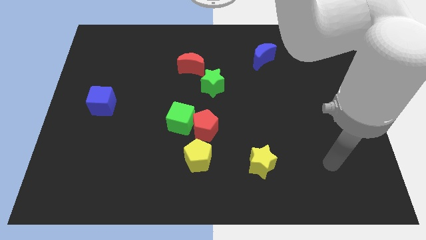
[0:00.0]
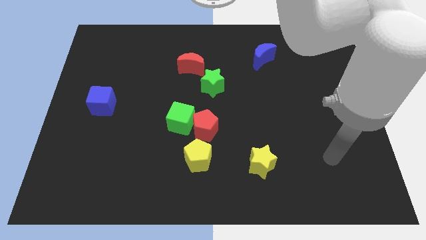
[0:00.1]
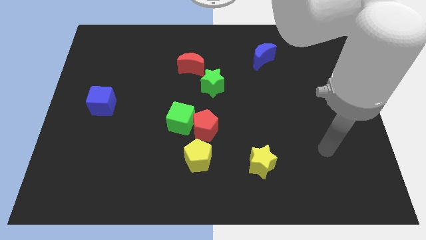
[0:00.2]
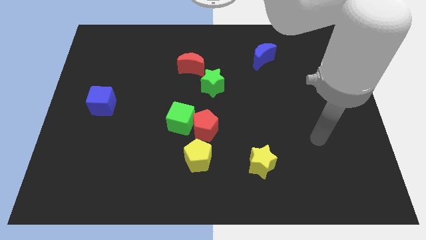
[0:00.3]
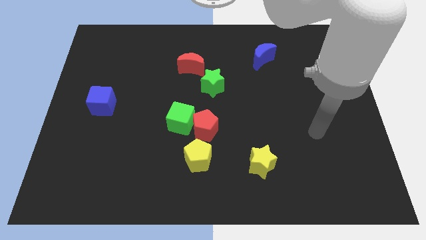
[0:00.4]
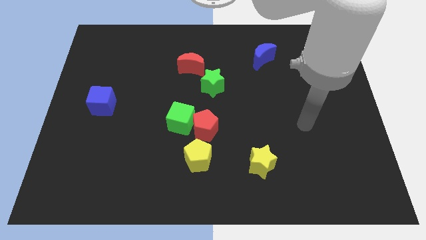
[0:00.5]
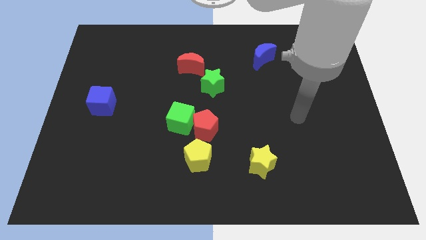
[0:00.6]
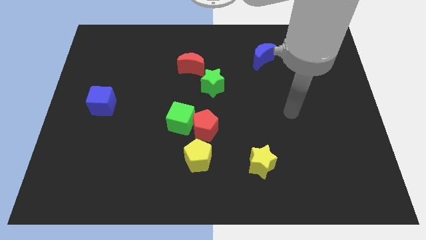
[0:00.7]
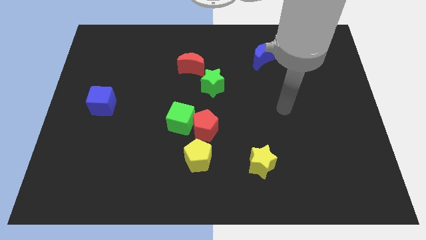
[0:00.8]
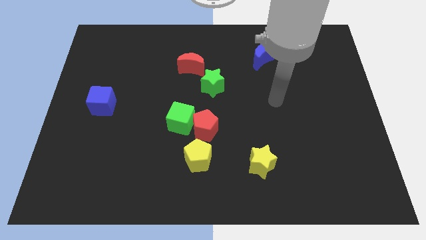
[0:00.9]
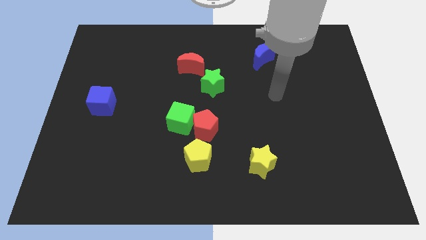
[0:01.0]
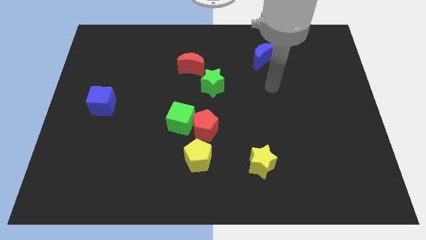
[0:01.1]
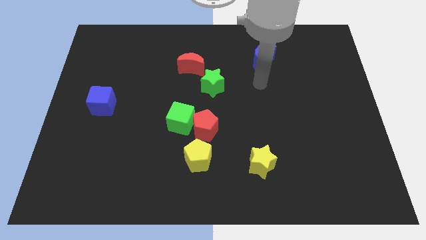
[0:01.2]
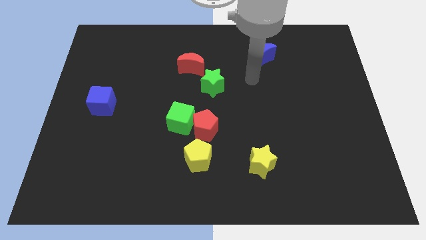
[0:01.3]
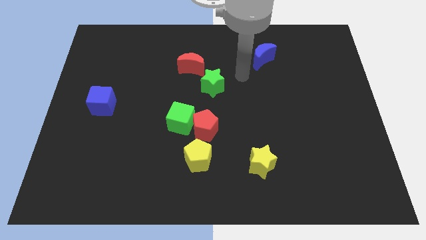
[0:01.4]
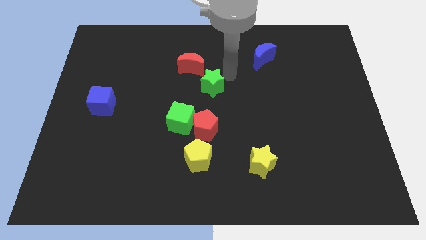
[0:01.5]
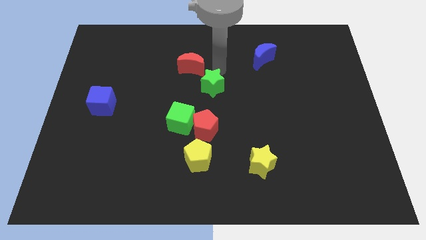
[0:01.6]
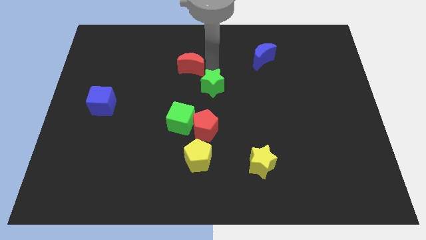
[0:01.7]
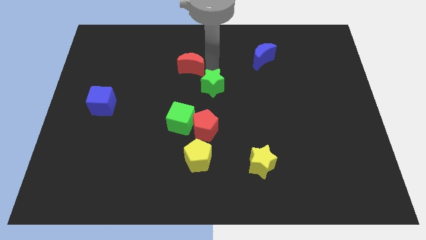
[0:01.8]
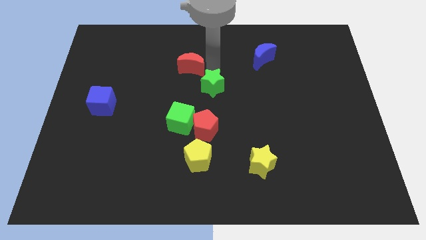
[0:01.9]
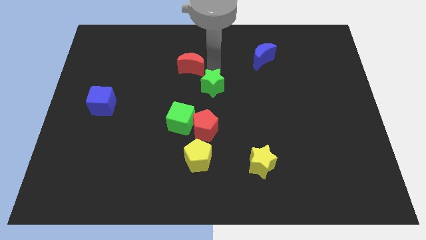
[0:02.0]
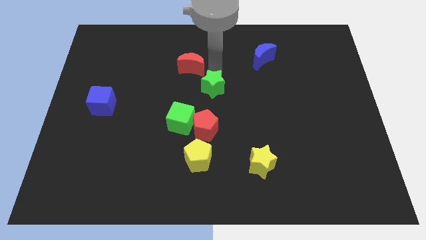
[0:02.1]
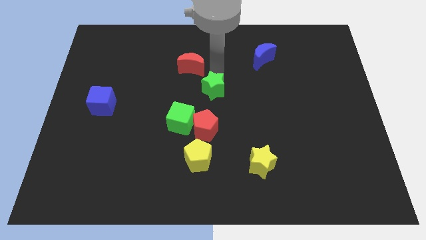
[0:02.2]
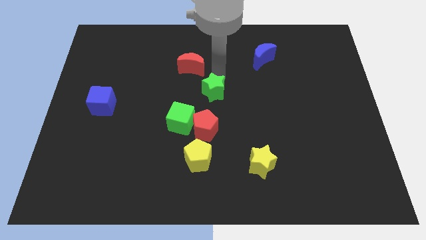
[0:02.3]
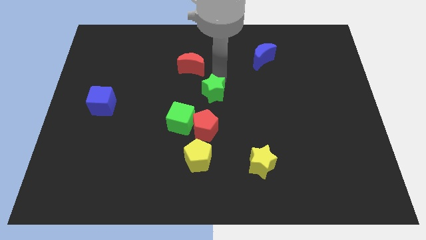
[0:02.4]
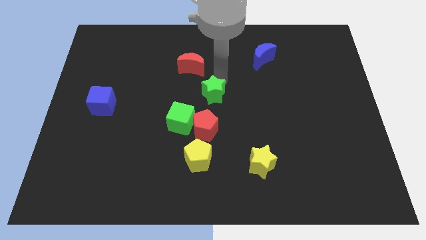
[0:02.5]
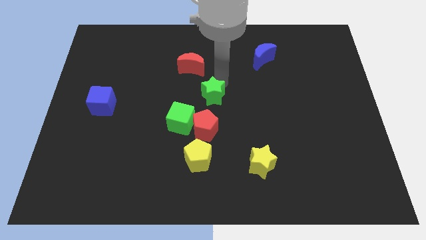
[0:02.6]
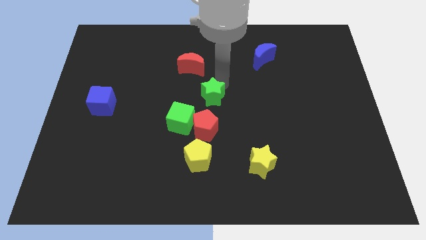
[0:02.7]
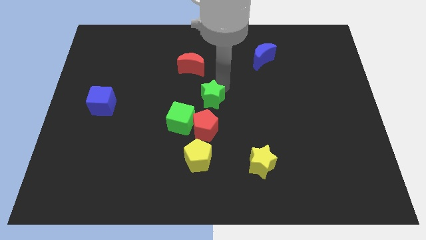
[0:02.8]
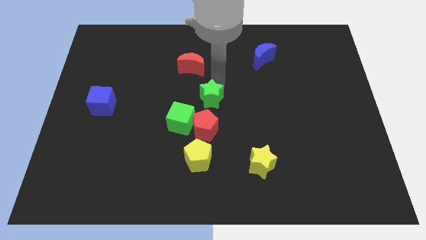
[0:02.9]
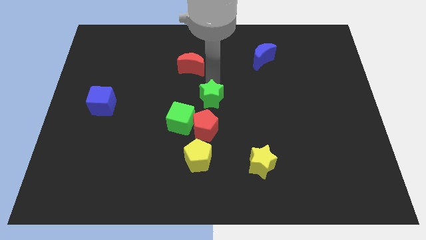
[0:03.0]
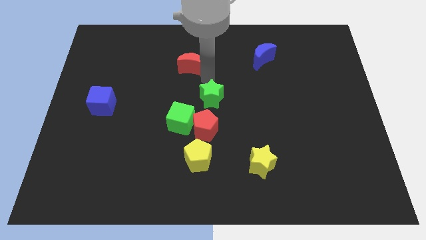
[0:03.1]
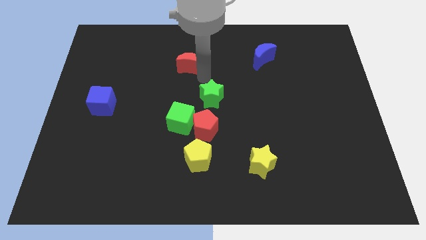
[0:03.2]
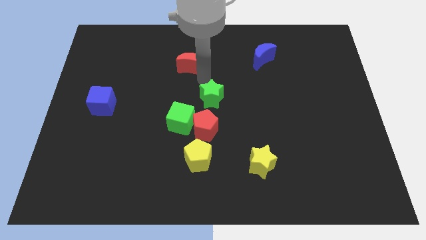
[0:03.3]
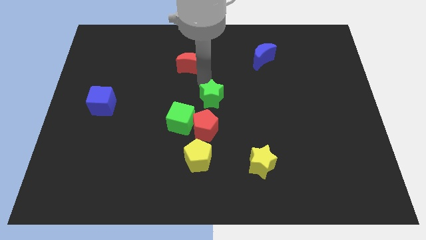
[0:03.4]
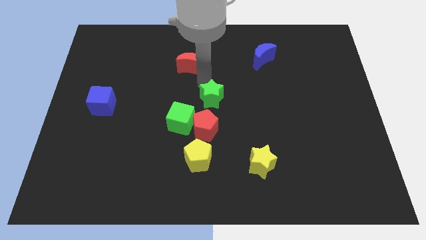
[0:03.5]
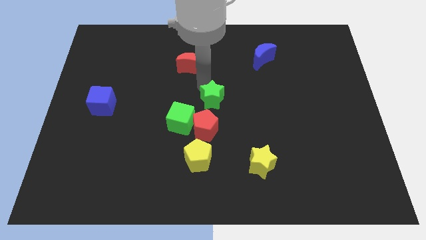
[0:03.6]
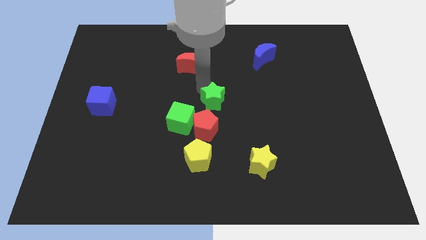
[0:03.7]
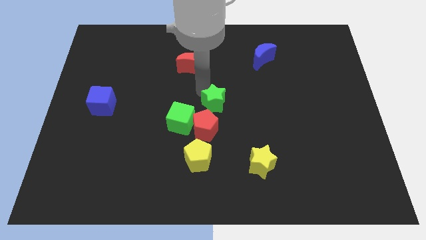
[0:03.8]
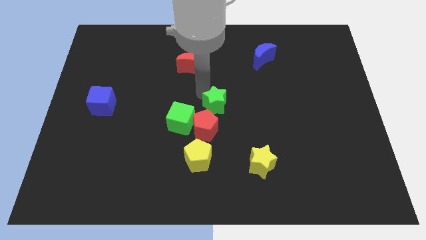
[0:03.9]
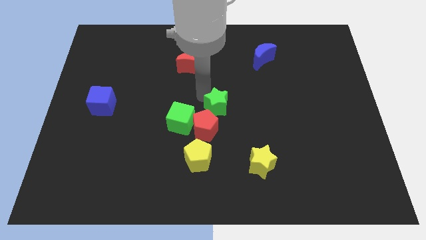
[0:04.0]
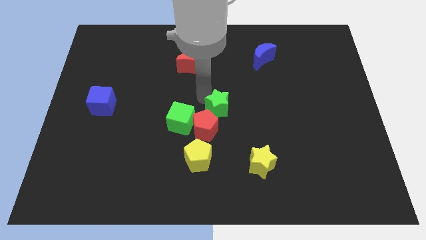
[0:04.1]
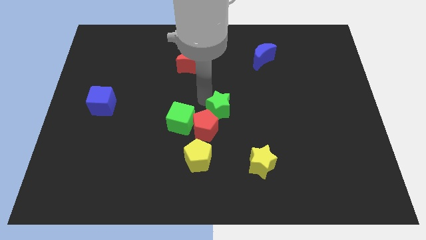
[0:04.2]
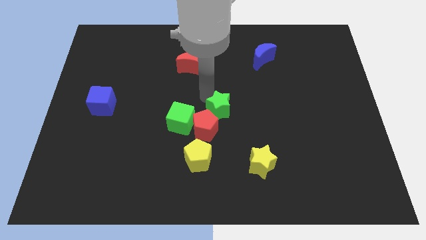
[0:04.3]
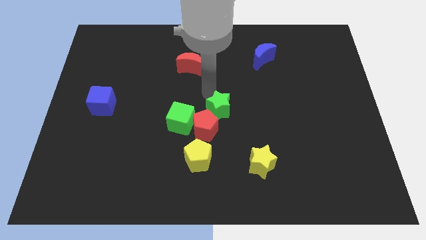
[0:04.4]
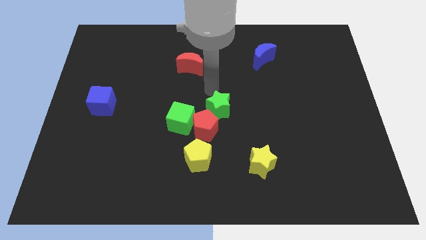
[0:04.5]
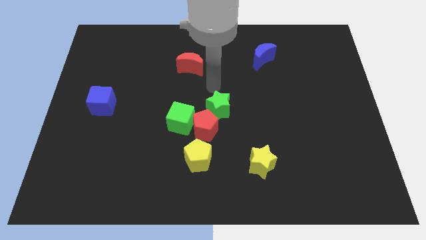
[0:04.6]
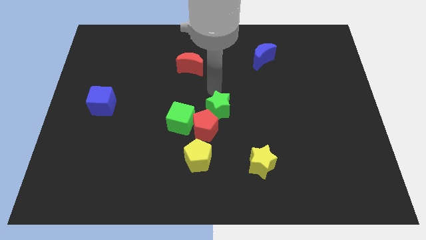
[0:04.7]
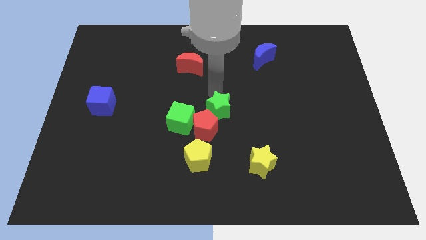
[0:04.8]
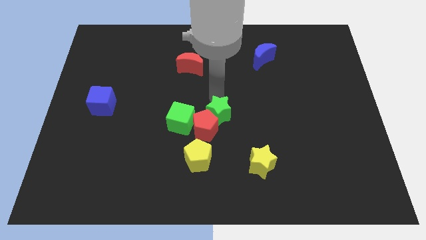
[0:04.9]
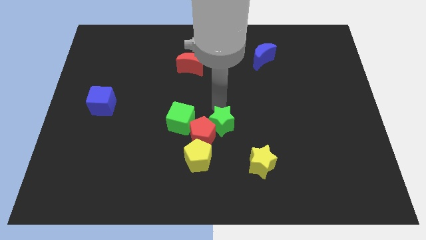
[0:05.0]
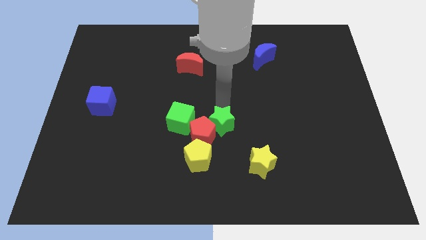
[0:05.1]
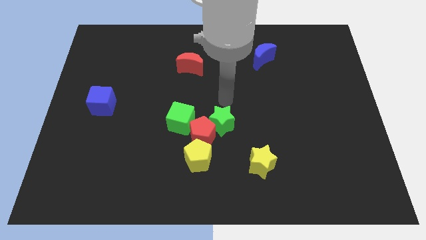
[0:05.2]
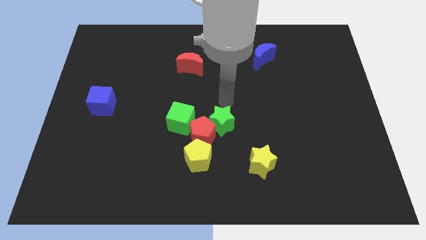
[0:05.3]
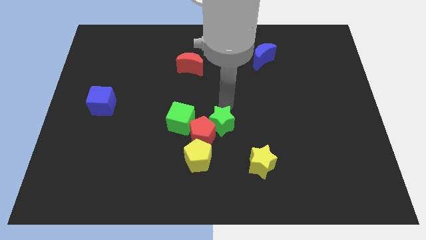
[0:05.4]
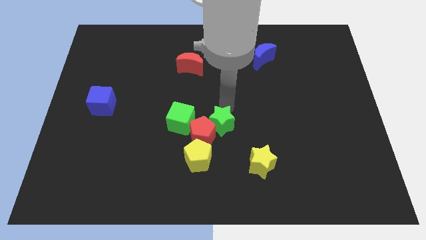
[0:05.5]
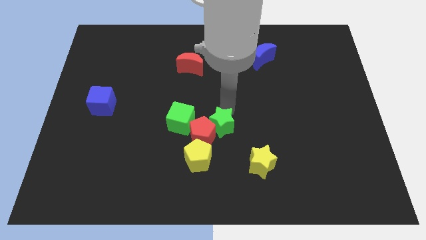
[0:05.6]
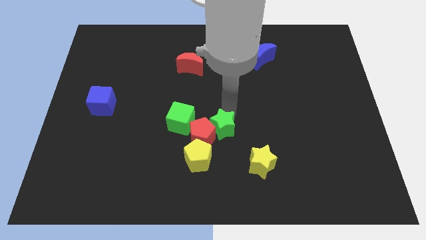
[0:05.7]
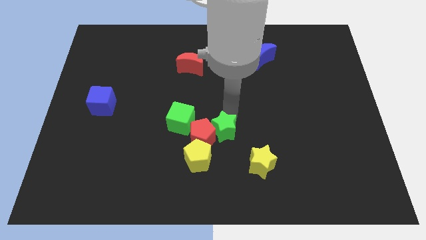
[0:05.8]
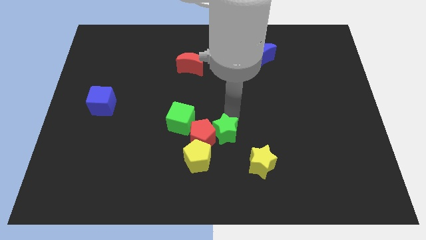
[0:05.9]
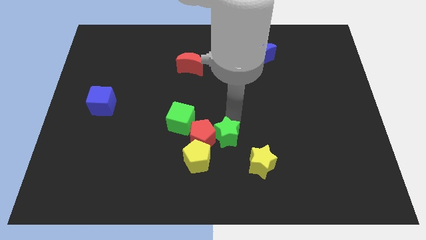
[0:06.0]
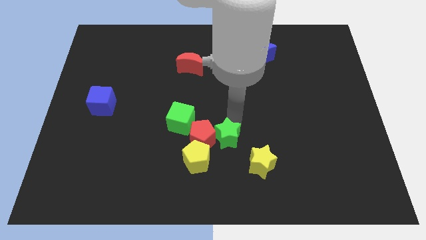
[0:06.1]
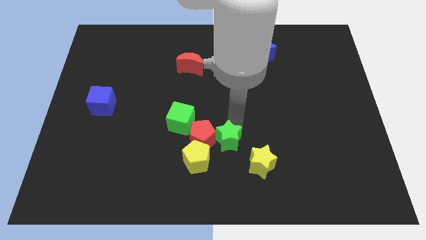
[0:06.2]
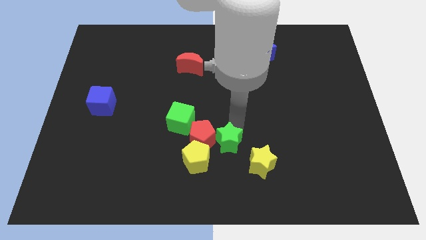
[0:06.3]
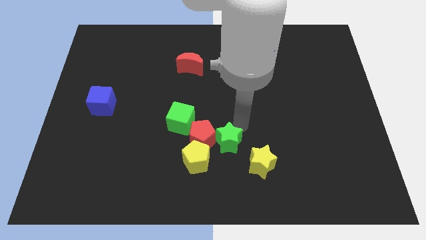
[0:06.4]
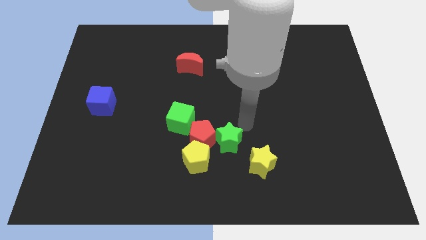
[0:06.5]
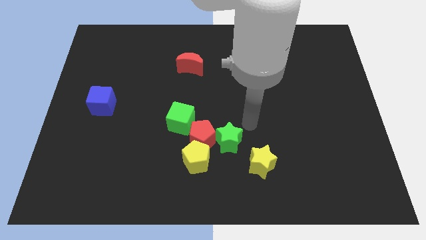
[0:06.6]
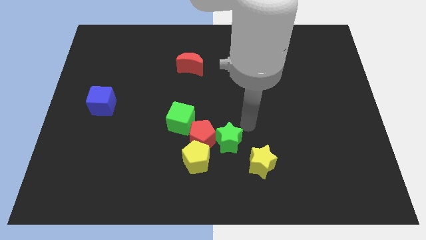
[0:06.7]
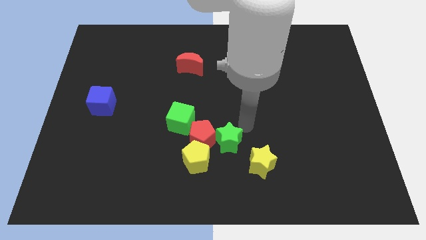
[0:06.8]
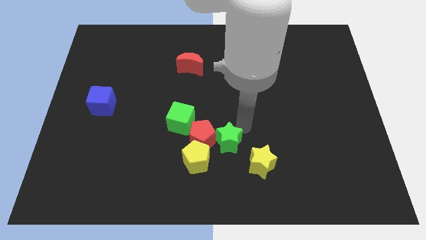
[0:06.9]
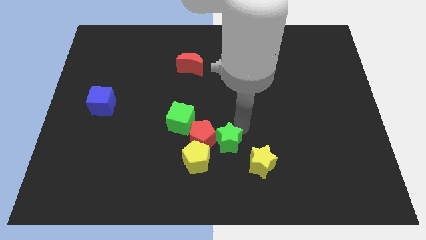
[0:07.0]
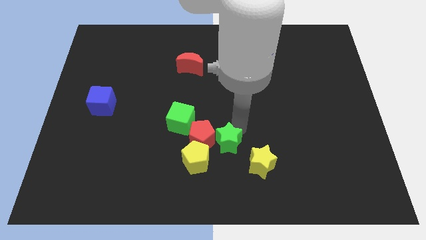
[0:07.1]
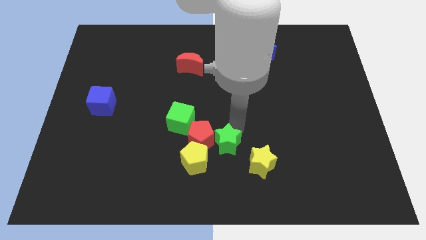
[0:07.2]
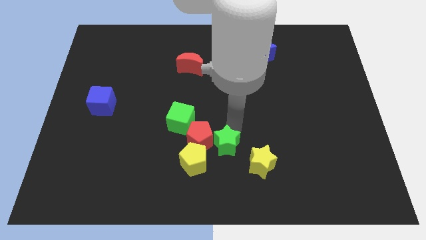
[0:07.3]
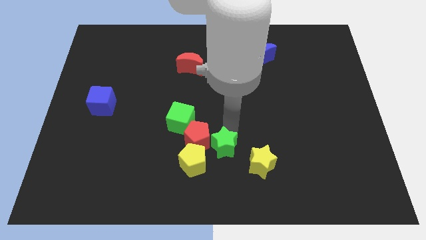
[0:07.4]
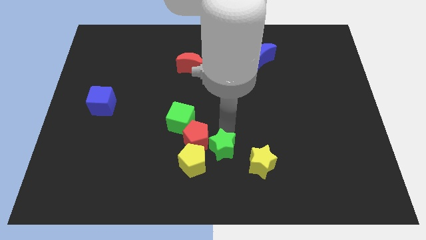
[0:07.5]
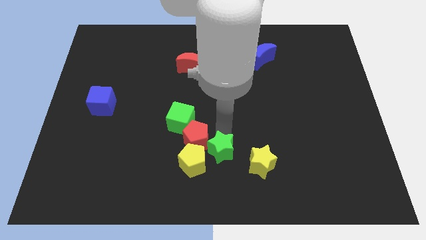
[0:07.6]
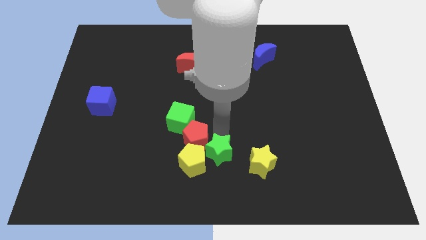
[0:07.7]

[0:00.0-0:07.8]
slide the green star next to the yellow pentagon
